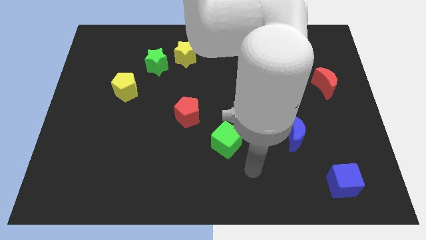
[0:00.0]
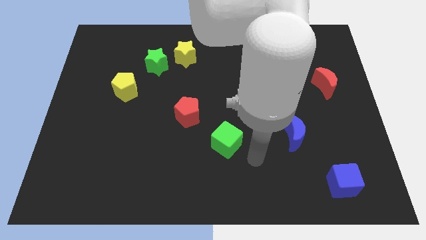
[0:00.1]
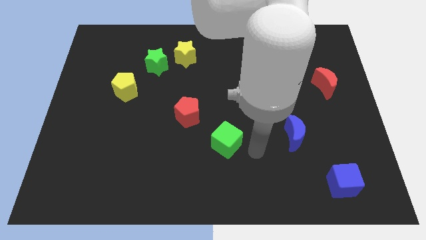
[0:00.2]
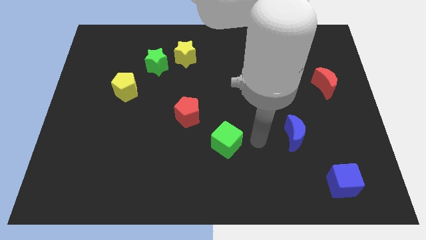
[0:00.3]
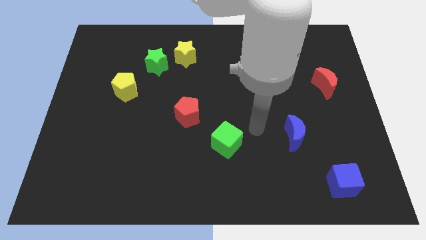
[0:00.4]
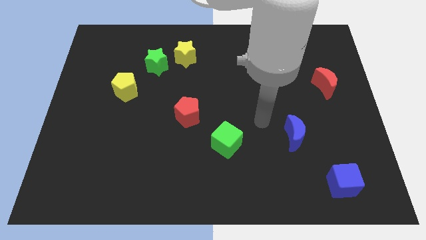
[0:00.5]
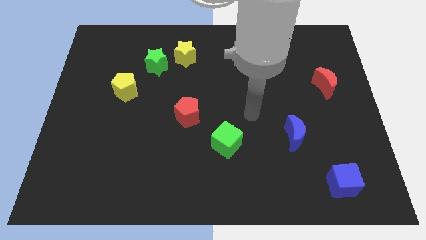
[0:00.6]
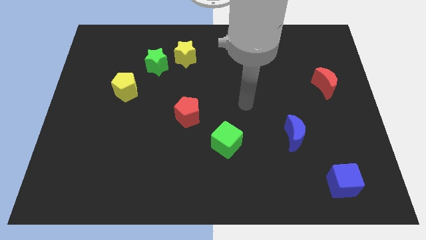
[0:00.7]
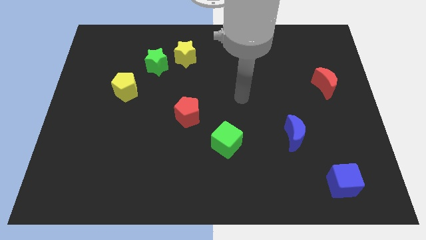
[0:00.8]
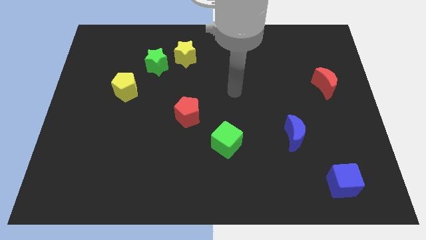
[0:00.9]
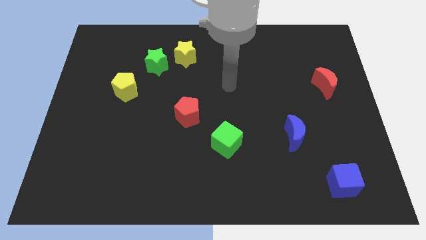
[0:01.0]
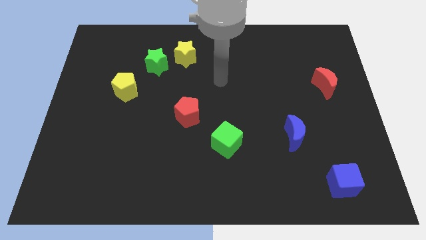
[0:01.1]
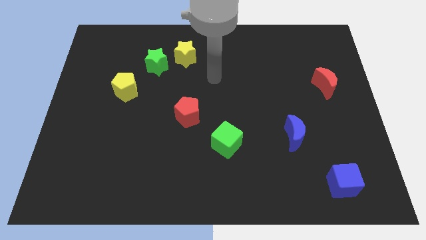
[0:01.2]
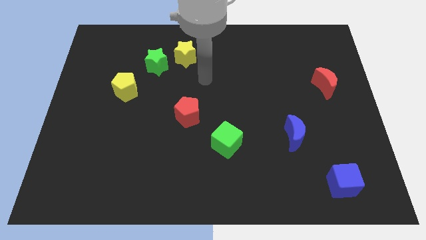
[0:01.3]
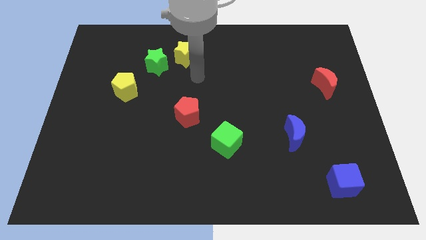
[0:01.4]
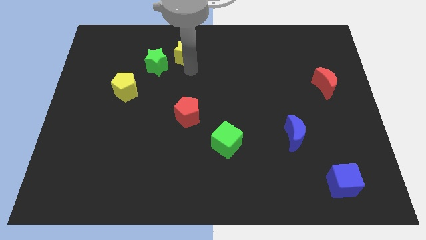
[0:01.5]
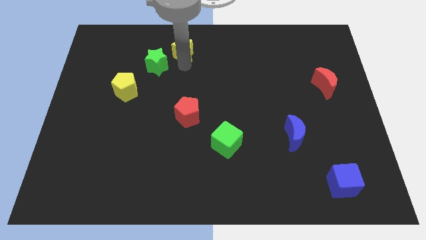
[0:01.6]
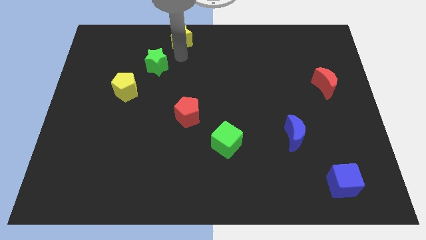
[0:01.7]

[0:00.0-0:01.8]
pull the green star apart from the yellow star

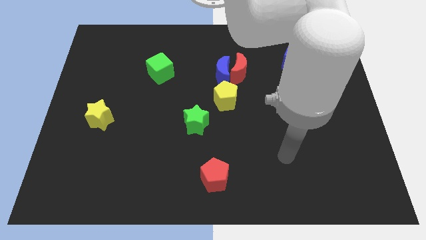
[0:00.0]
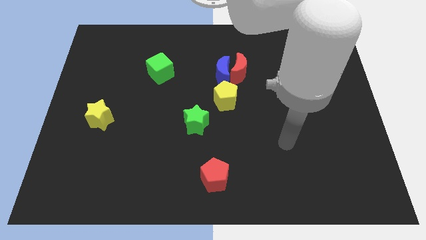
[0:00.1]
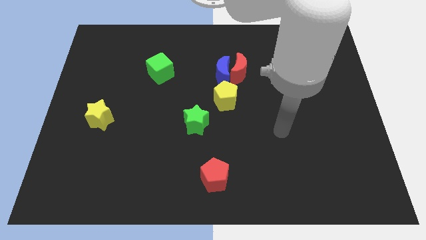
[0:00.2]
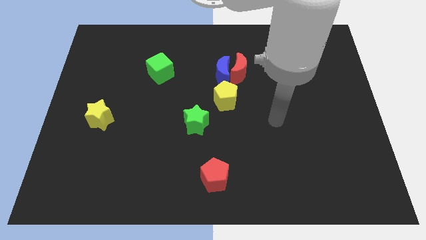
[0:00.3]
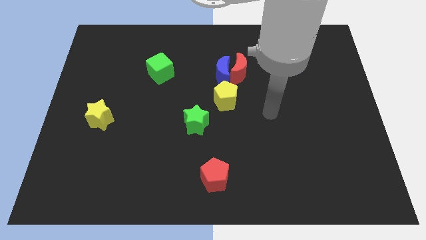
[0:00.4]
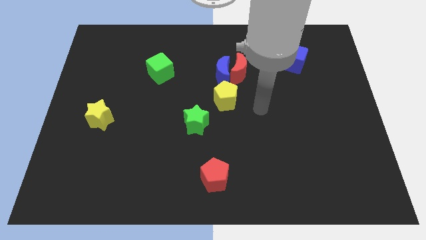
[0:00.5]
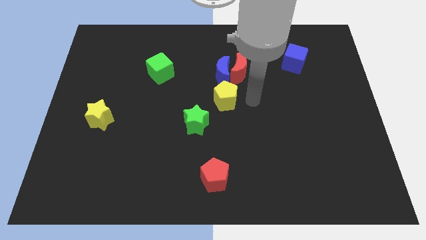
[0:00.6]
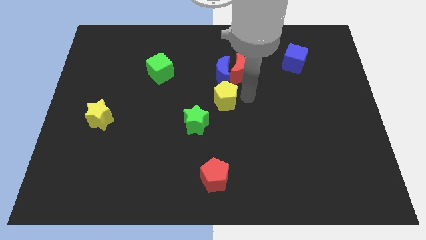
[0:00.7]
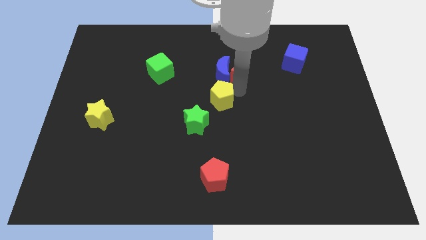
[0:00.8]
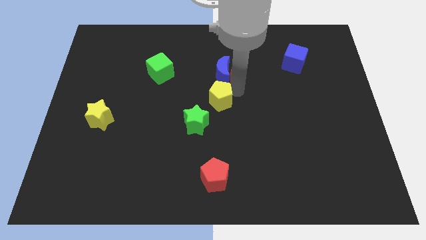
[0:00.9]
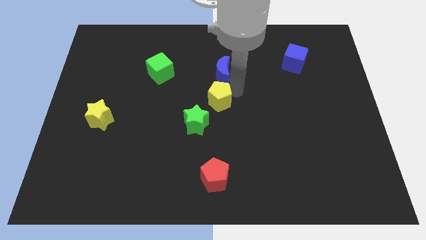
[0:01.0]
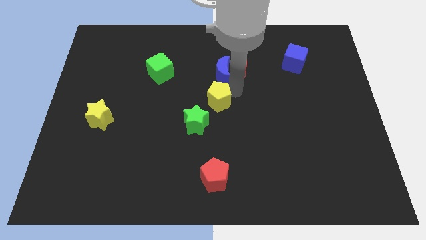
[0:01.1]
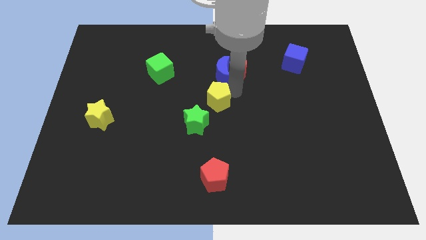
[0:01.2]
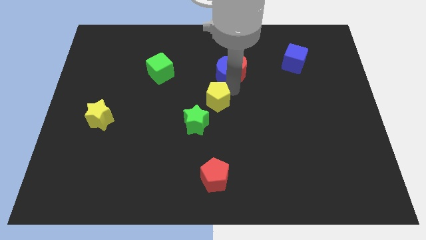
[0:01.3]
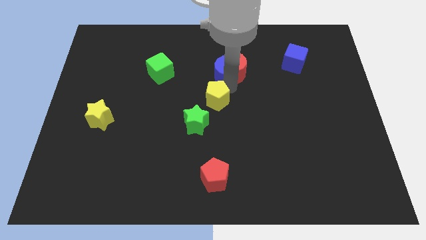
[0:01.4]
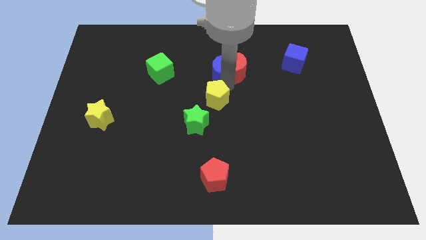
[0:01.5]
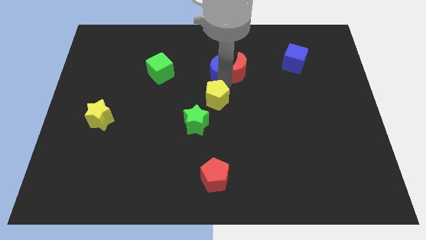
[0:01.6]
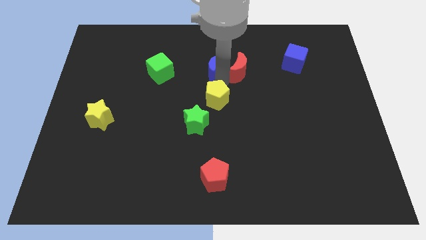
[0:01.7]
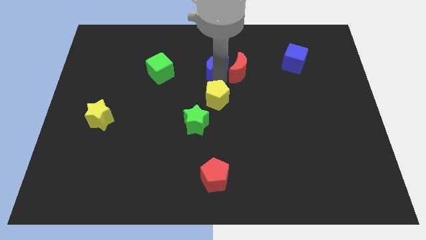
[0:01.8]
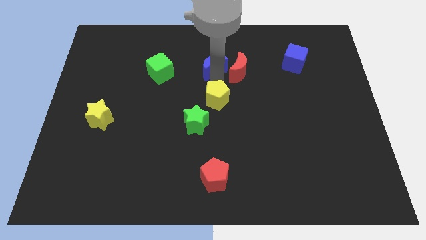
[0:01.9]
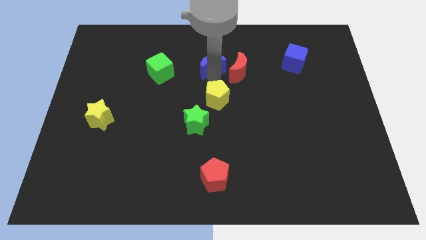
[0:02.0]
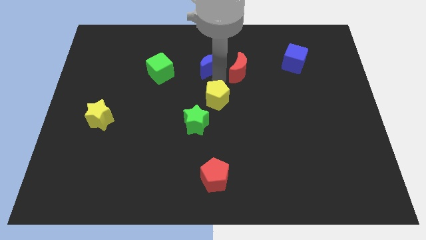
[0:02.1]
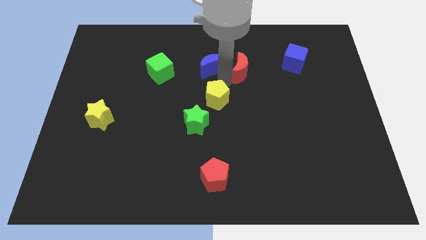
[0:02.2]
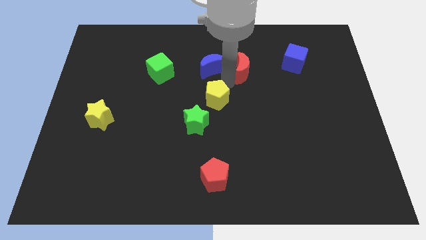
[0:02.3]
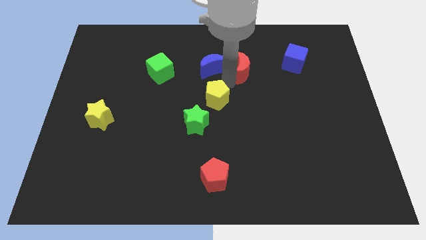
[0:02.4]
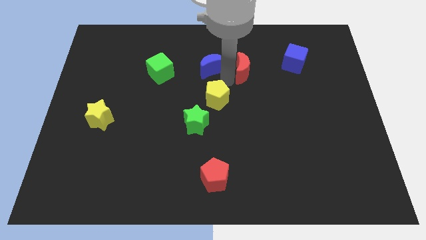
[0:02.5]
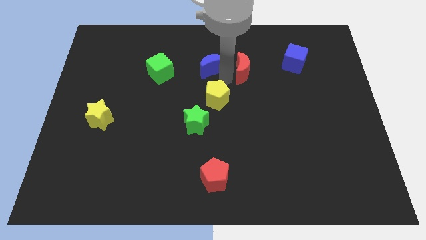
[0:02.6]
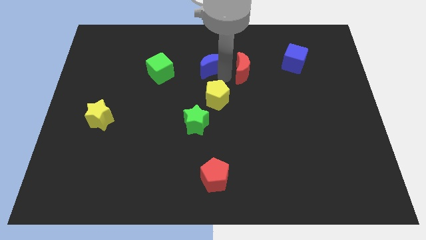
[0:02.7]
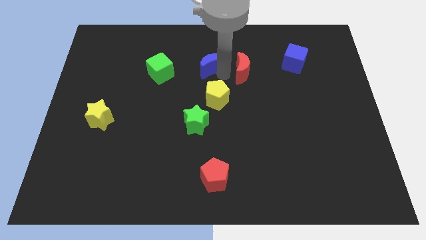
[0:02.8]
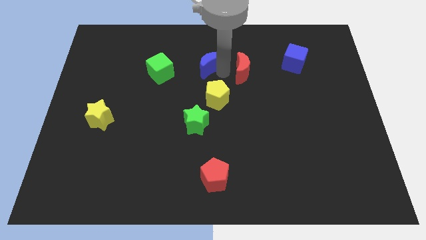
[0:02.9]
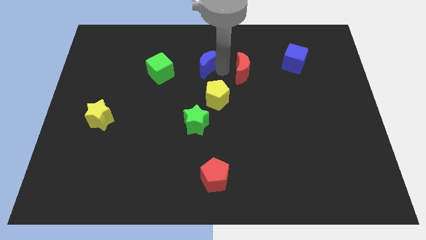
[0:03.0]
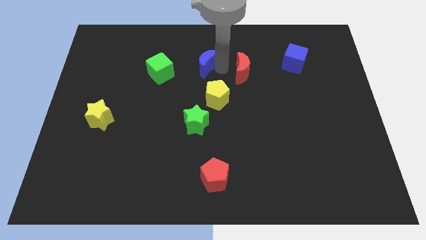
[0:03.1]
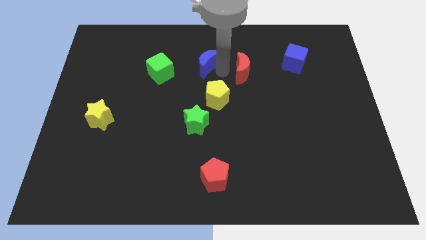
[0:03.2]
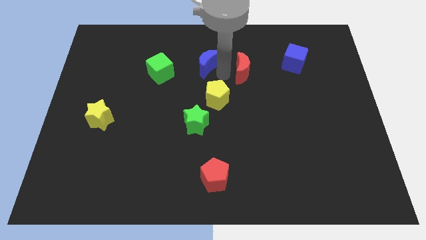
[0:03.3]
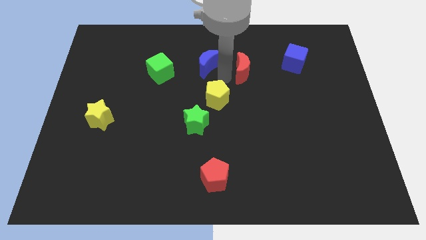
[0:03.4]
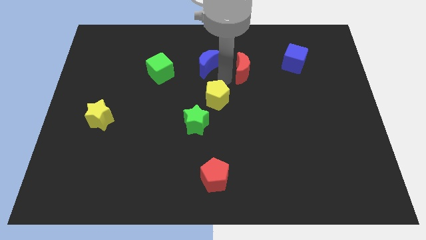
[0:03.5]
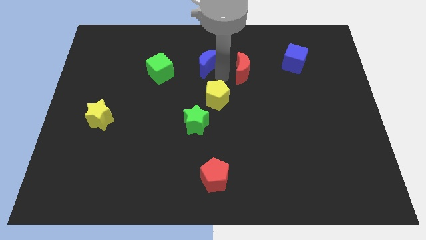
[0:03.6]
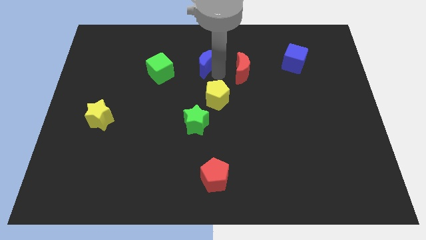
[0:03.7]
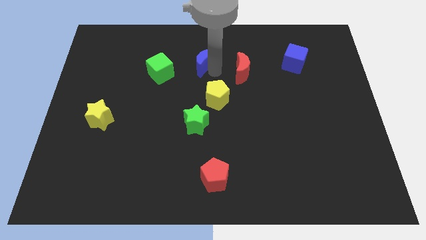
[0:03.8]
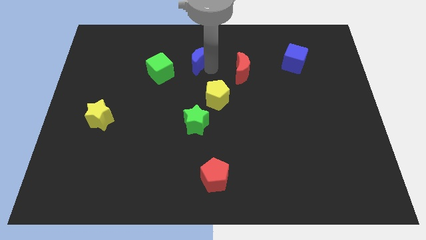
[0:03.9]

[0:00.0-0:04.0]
pull the blue moon apart from the red moon and yellow pentagon

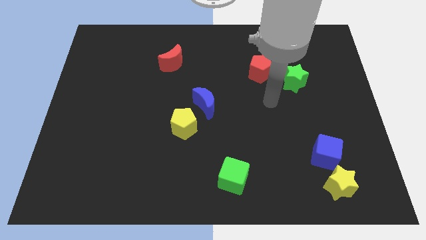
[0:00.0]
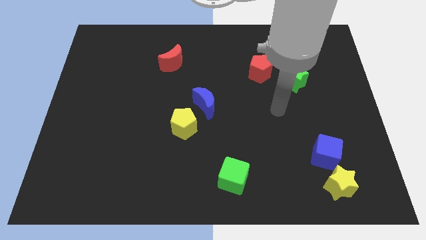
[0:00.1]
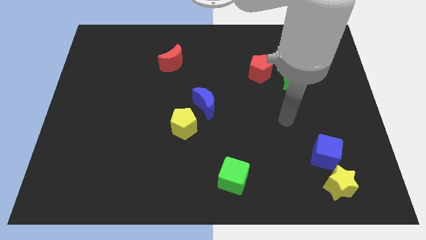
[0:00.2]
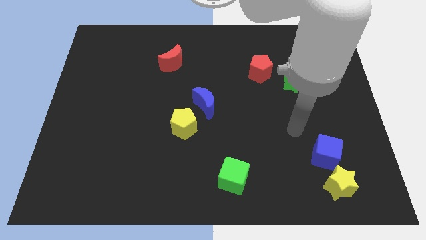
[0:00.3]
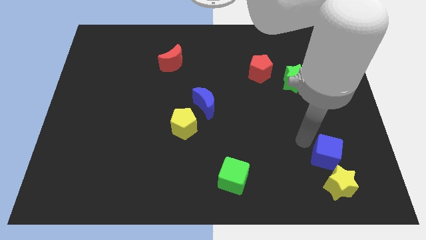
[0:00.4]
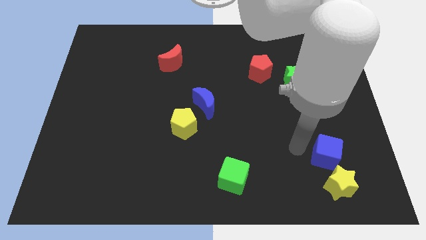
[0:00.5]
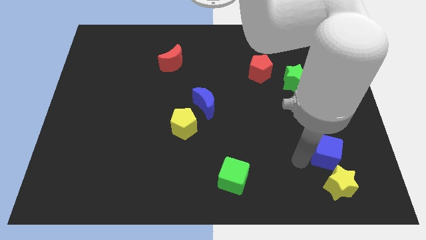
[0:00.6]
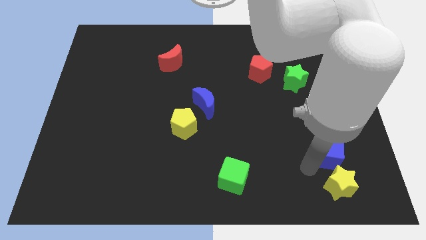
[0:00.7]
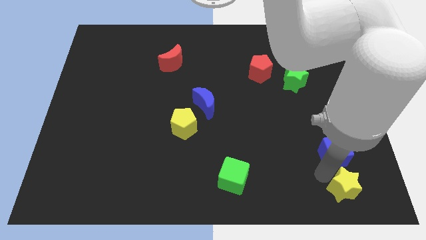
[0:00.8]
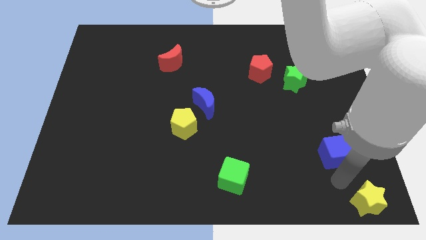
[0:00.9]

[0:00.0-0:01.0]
move the blue cube away from the yellow star

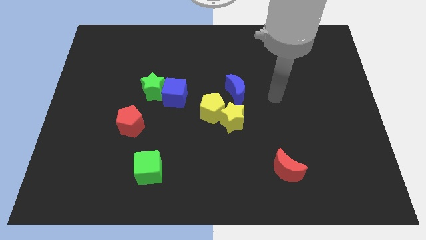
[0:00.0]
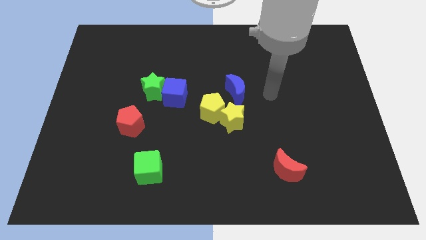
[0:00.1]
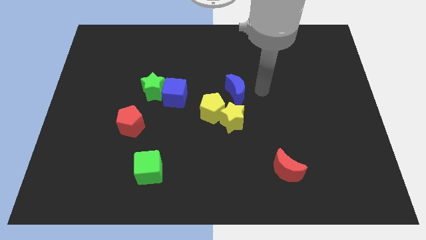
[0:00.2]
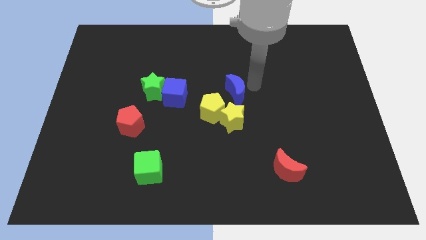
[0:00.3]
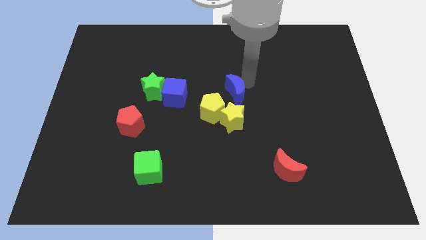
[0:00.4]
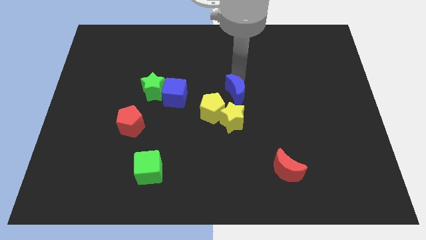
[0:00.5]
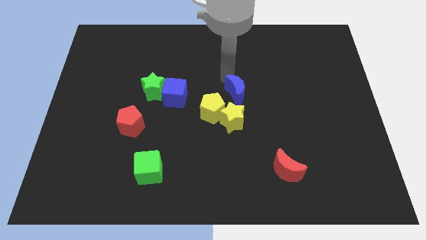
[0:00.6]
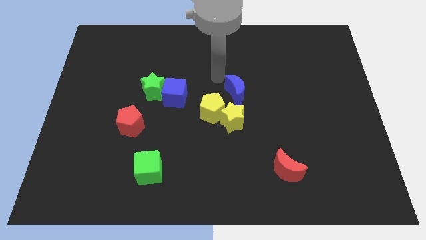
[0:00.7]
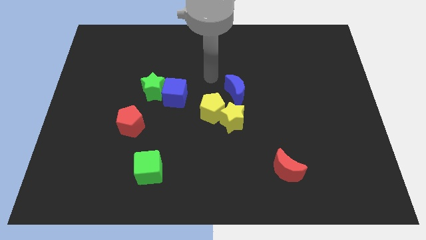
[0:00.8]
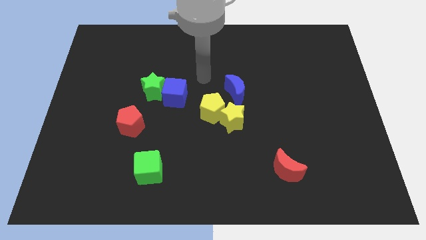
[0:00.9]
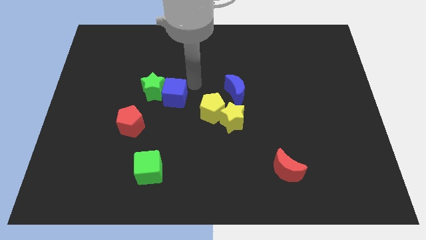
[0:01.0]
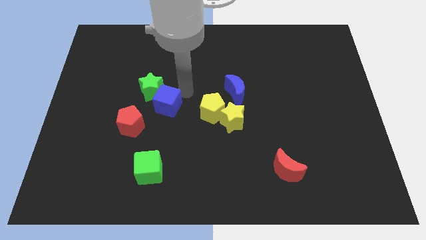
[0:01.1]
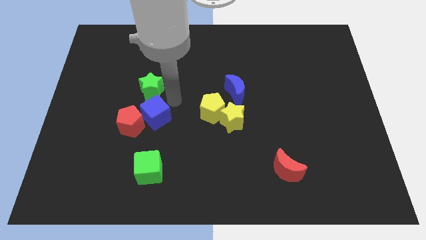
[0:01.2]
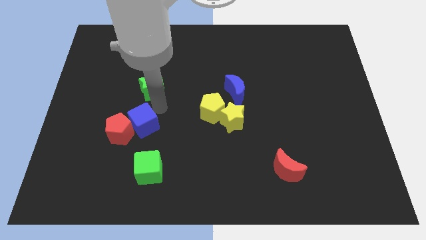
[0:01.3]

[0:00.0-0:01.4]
move the green star away from the blue cube

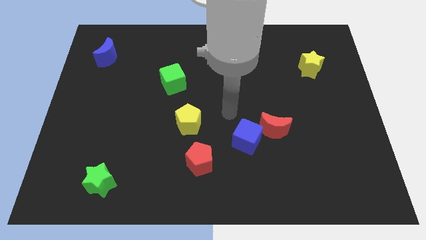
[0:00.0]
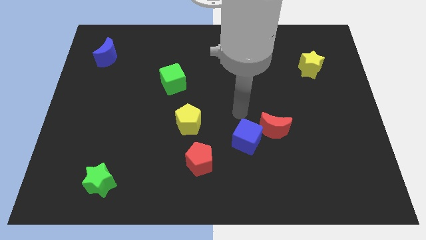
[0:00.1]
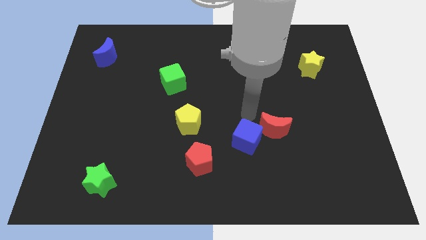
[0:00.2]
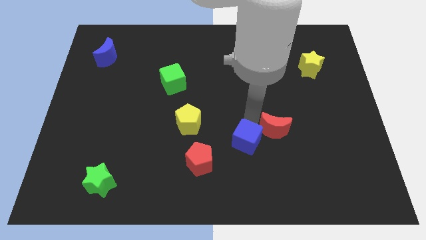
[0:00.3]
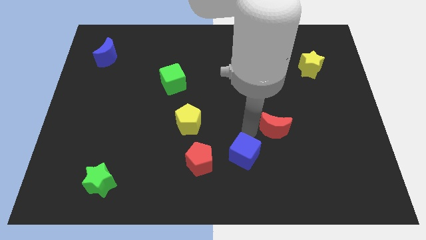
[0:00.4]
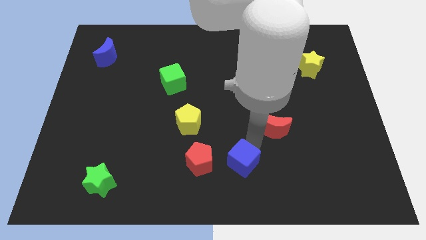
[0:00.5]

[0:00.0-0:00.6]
pull the red moon apart from the blue cube

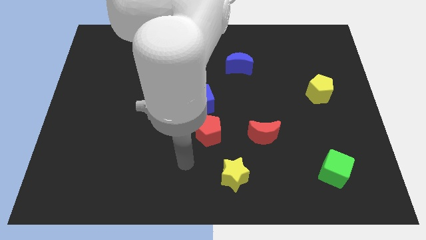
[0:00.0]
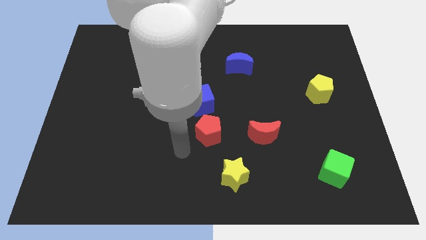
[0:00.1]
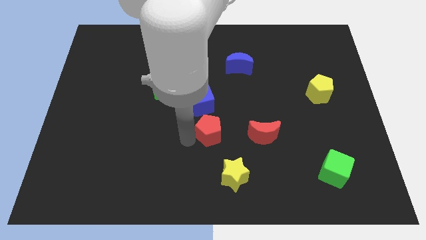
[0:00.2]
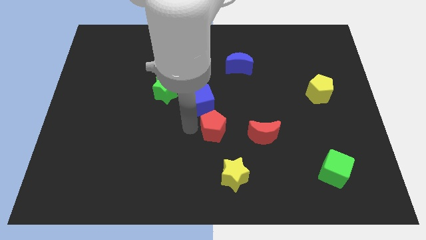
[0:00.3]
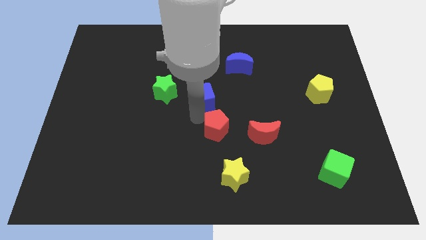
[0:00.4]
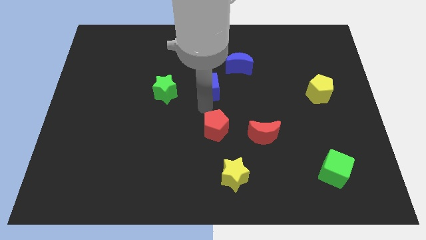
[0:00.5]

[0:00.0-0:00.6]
separate the red pentagon from the blue cube
